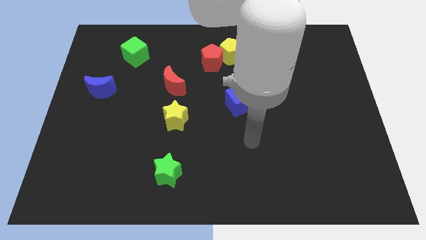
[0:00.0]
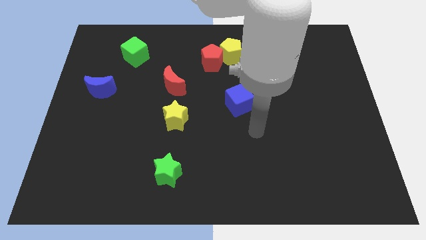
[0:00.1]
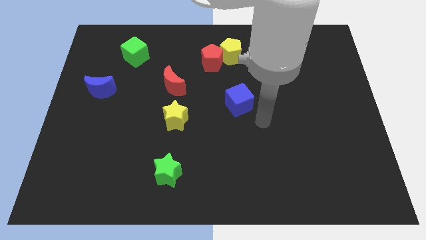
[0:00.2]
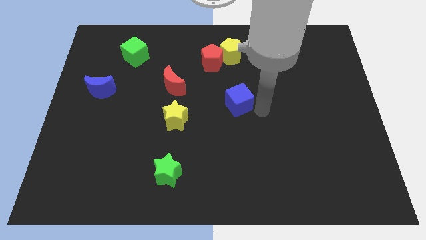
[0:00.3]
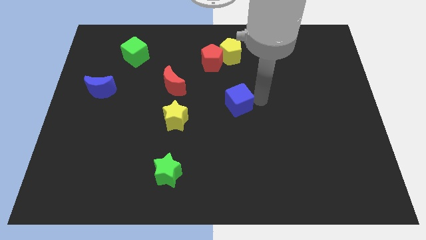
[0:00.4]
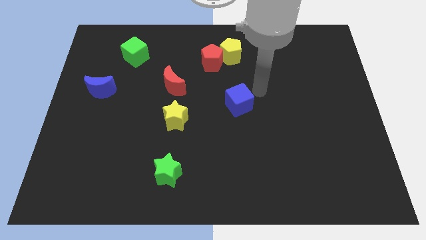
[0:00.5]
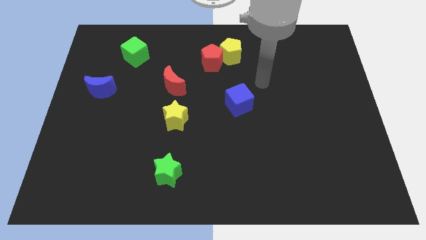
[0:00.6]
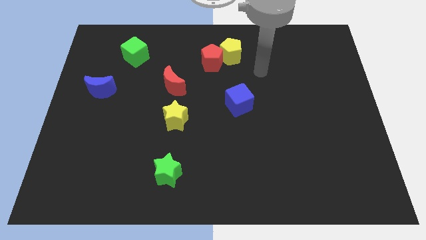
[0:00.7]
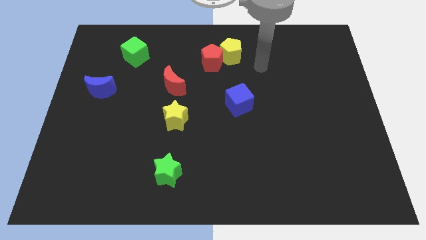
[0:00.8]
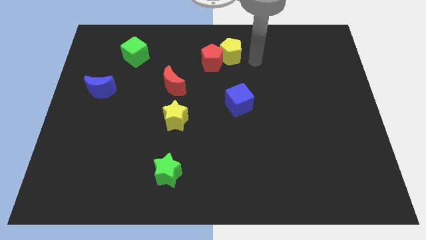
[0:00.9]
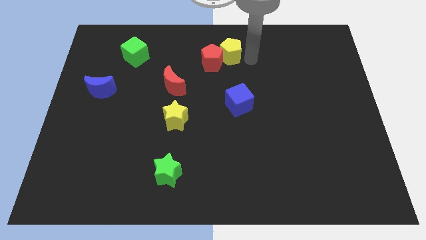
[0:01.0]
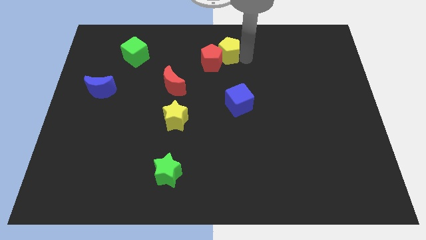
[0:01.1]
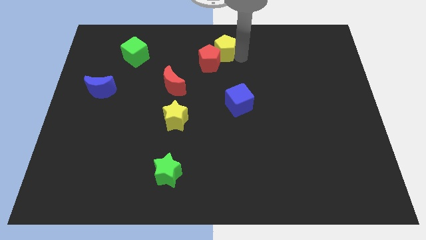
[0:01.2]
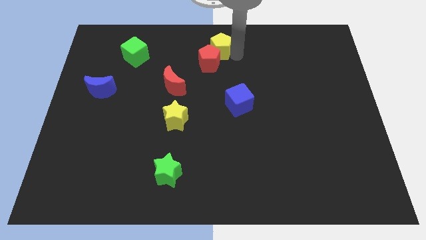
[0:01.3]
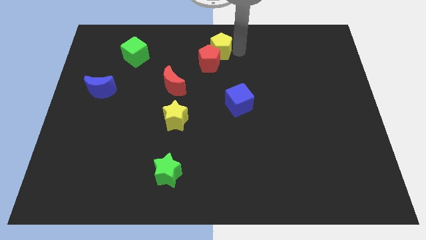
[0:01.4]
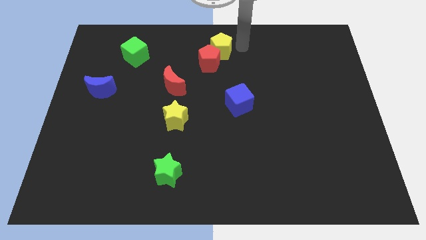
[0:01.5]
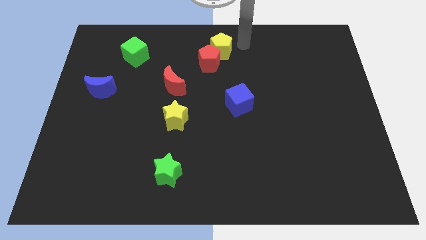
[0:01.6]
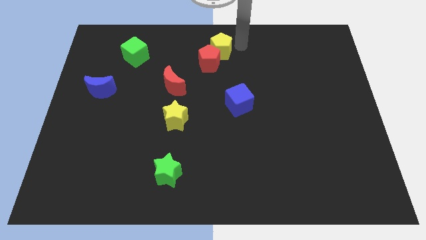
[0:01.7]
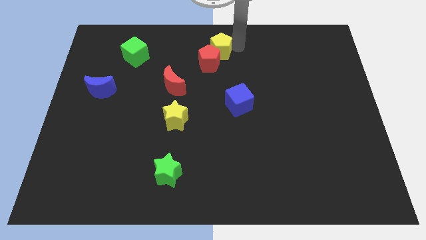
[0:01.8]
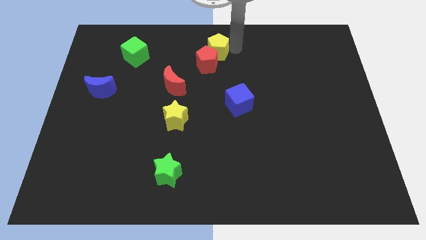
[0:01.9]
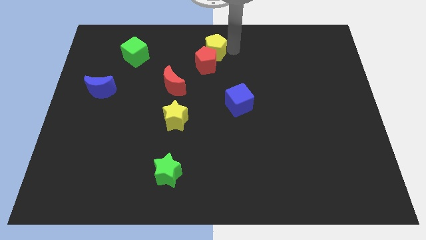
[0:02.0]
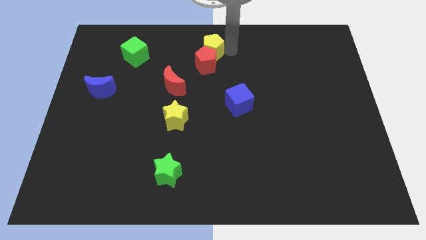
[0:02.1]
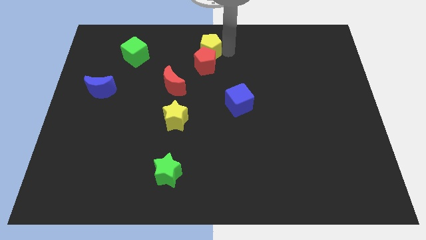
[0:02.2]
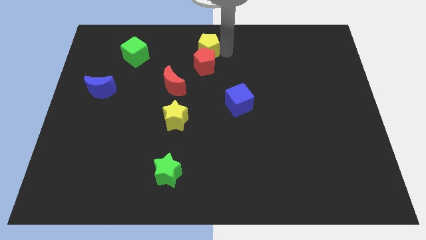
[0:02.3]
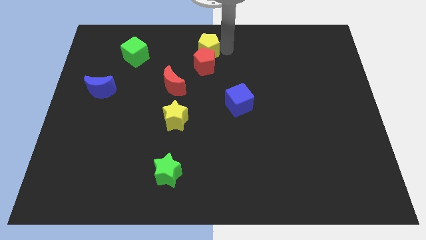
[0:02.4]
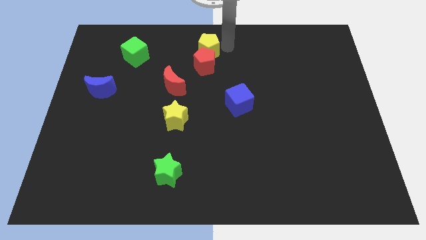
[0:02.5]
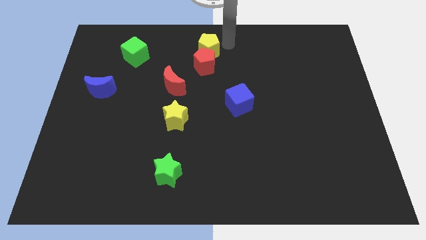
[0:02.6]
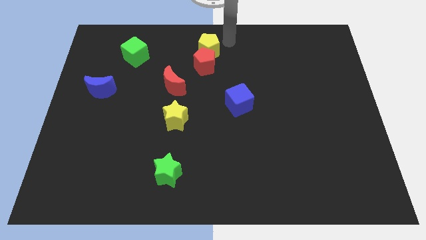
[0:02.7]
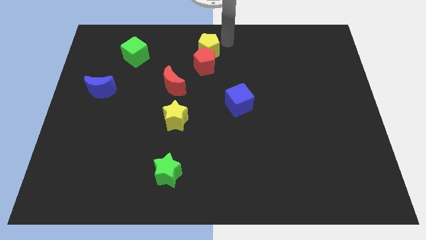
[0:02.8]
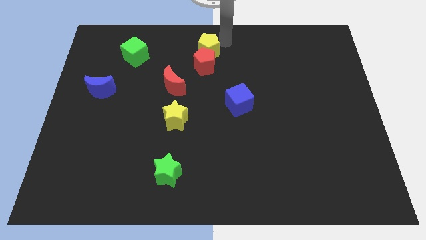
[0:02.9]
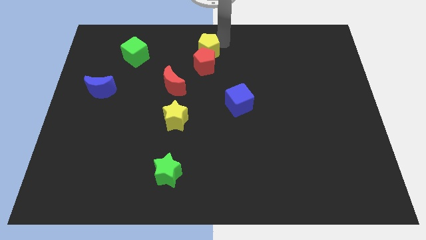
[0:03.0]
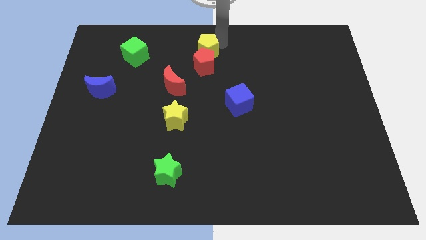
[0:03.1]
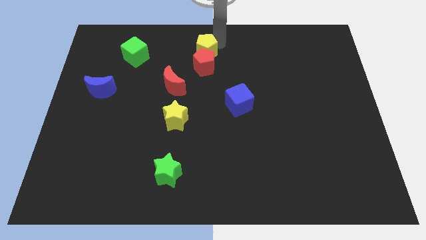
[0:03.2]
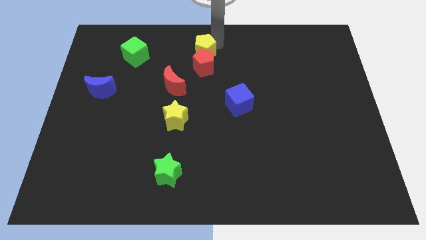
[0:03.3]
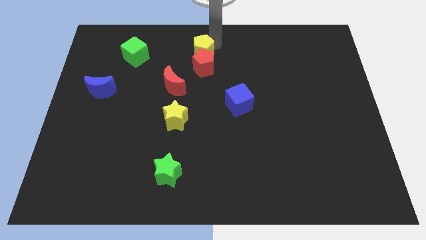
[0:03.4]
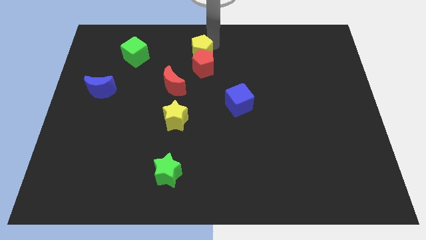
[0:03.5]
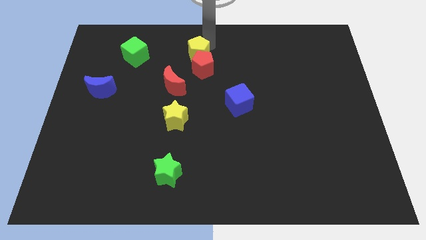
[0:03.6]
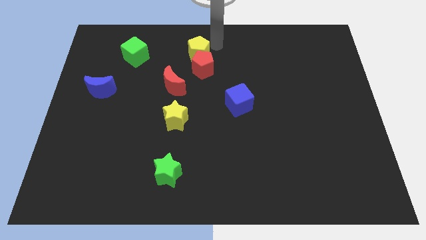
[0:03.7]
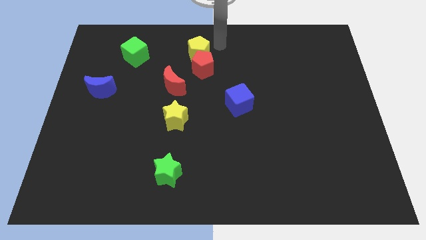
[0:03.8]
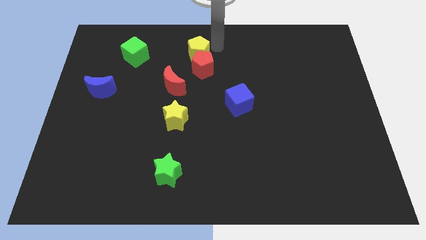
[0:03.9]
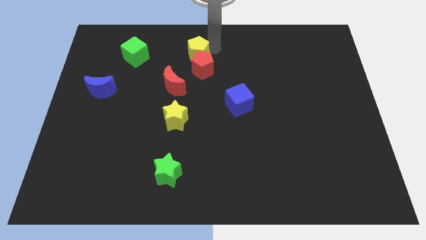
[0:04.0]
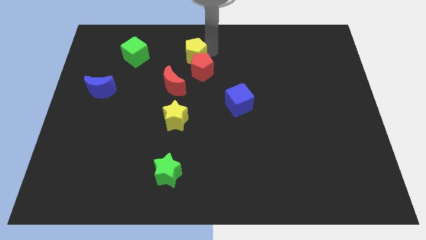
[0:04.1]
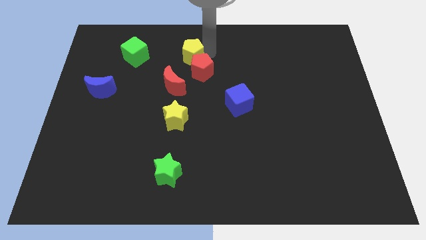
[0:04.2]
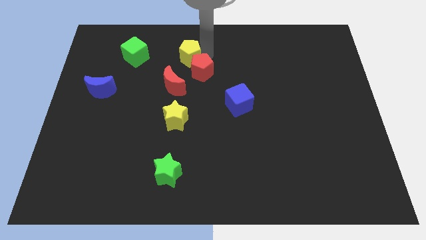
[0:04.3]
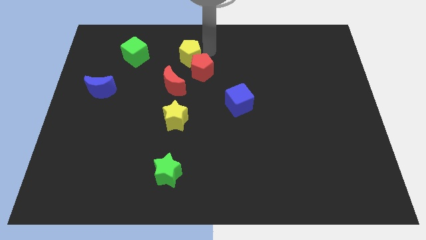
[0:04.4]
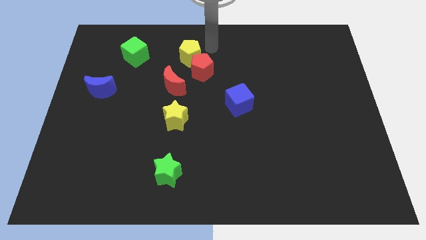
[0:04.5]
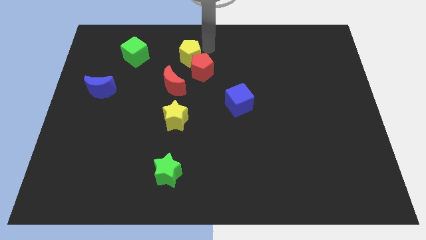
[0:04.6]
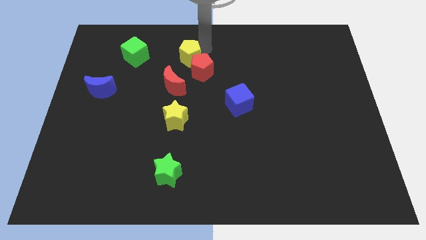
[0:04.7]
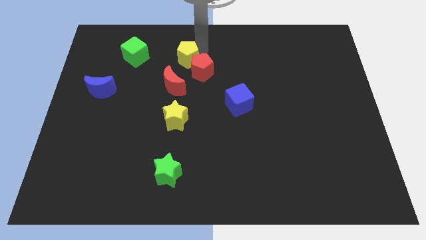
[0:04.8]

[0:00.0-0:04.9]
put the yellow pentagon to the left side of the red pentagon

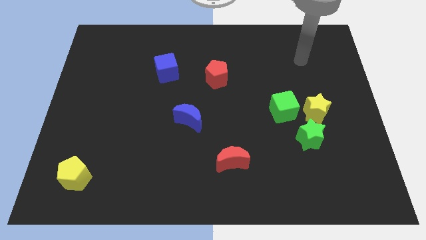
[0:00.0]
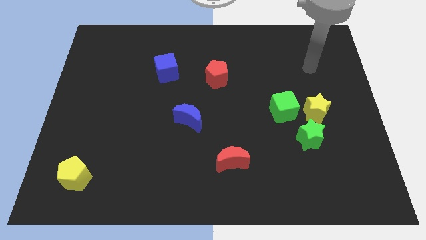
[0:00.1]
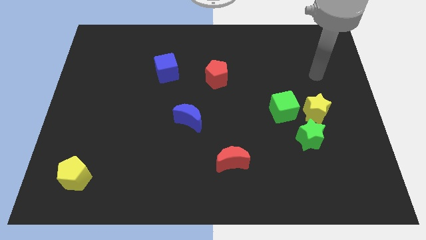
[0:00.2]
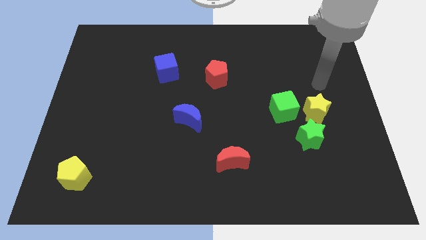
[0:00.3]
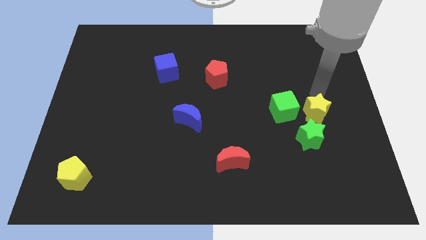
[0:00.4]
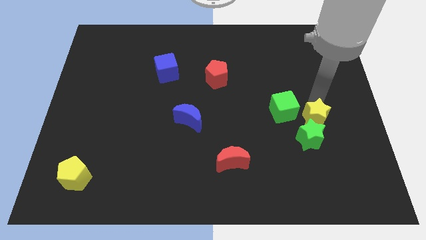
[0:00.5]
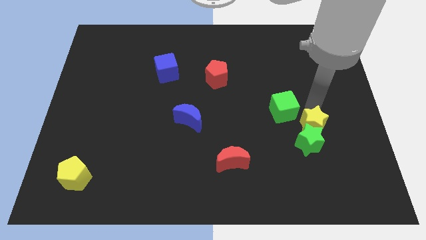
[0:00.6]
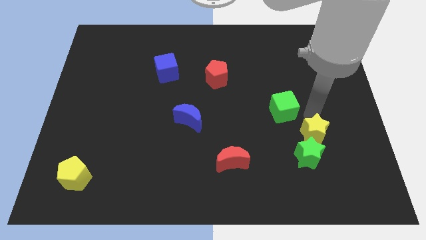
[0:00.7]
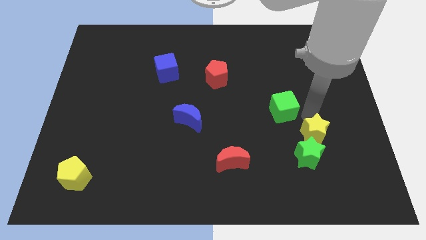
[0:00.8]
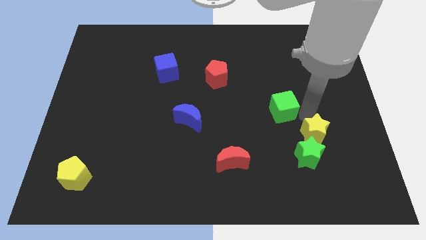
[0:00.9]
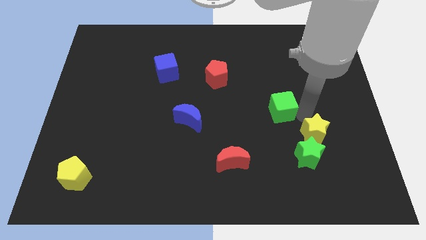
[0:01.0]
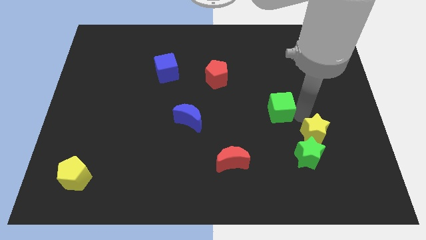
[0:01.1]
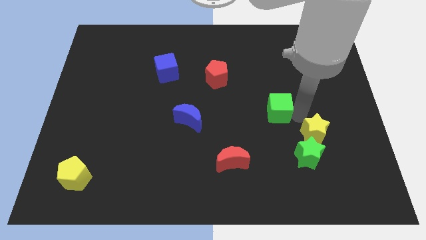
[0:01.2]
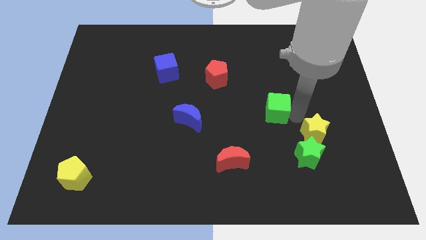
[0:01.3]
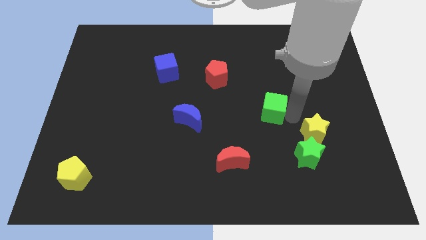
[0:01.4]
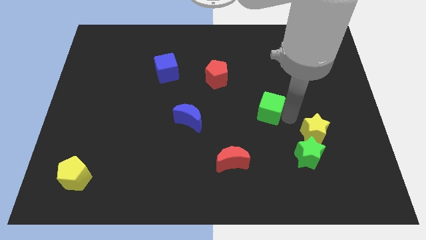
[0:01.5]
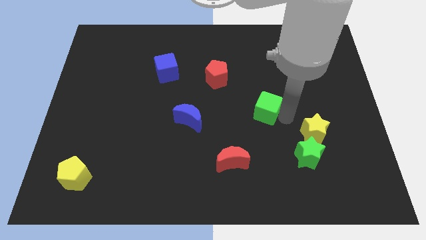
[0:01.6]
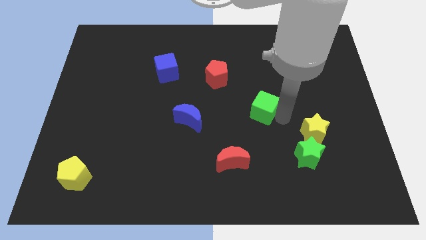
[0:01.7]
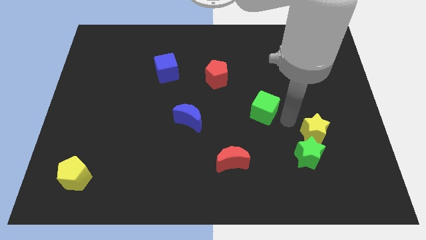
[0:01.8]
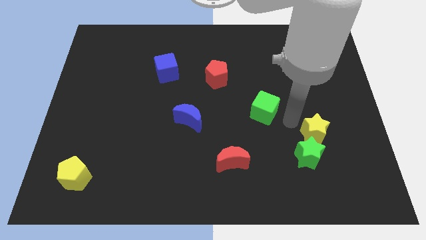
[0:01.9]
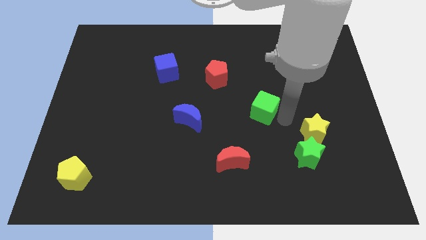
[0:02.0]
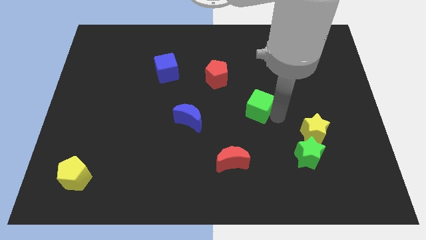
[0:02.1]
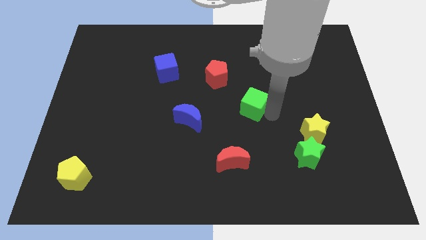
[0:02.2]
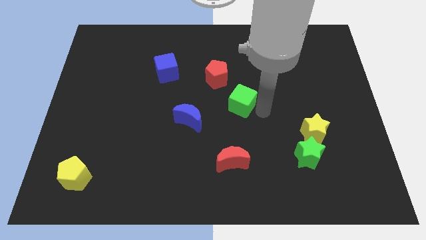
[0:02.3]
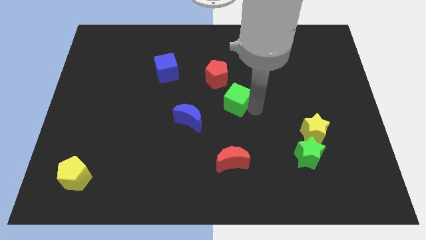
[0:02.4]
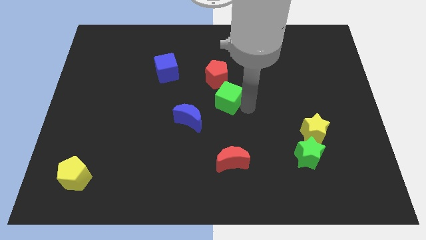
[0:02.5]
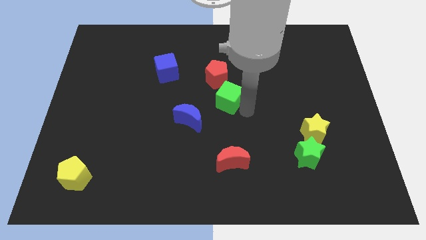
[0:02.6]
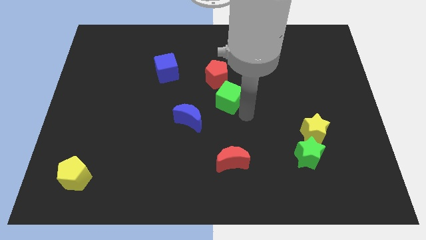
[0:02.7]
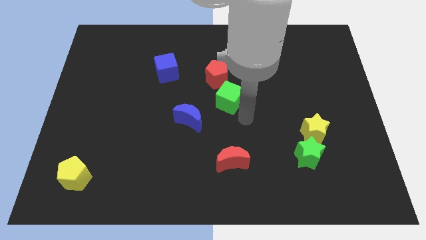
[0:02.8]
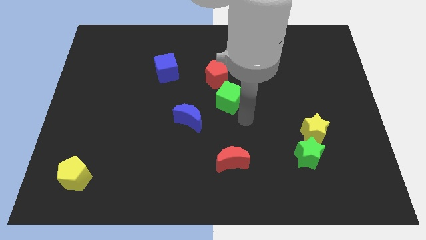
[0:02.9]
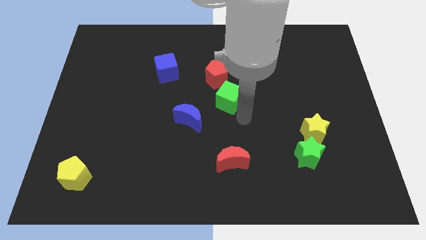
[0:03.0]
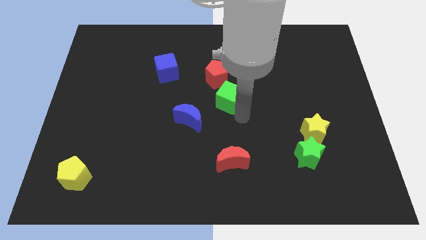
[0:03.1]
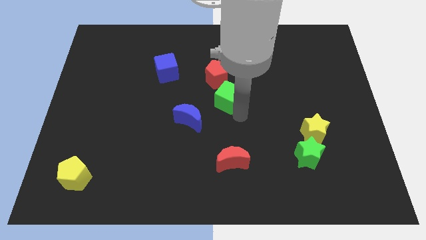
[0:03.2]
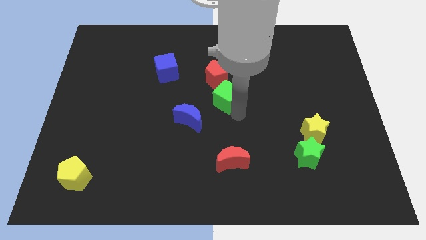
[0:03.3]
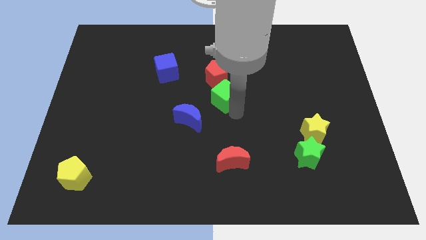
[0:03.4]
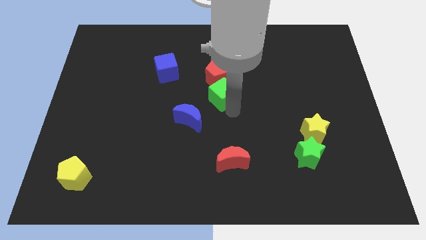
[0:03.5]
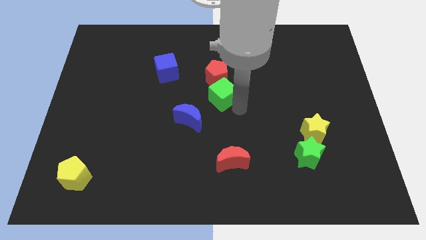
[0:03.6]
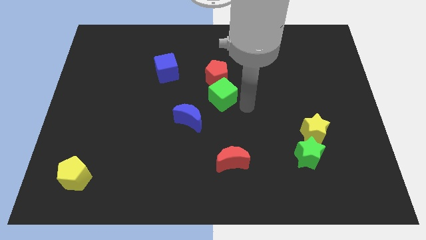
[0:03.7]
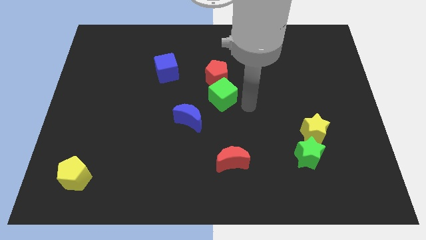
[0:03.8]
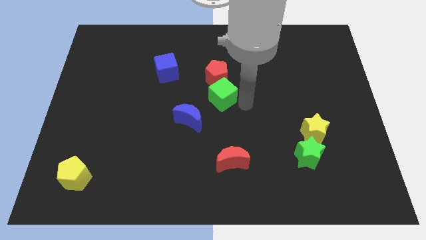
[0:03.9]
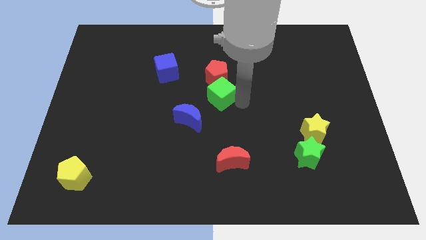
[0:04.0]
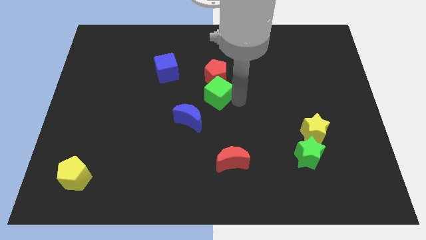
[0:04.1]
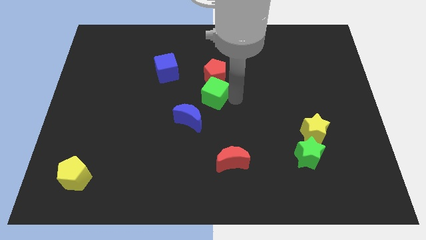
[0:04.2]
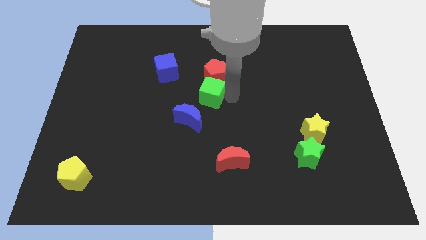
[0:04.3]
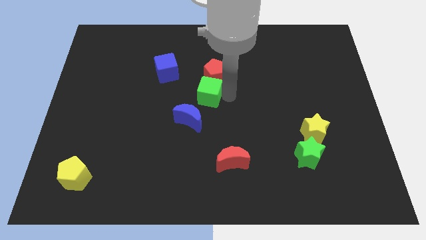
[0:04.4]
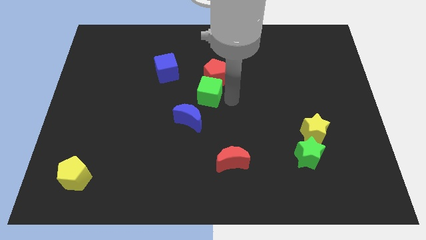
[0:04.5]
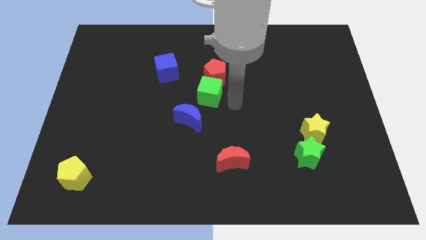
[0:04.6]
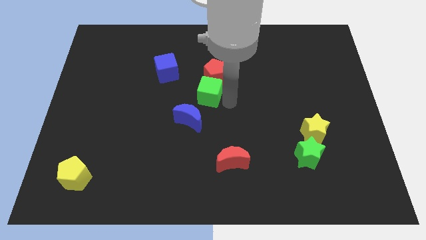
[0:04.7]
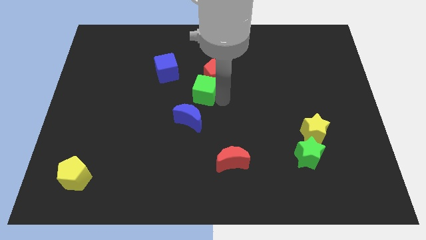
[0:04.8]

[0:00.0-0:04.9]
move the green cube to the bottom right side of the blue cube
